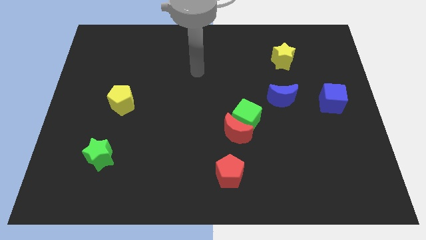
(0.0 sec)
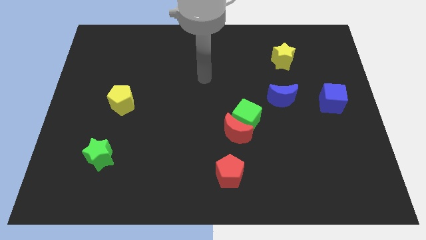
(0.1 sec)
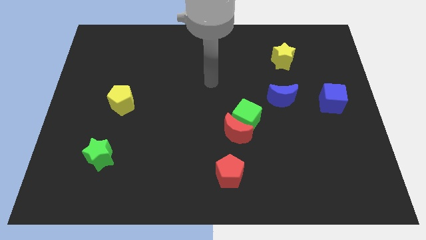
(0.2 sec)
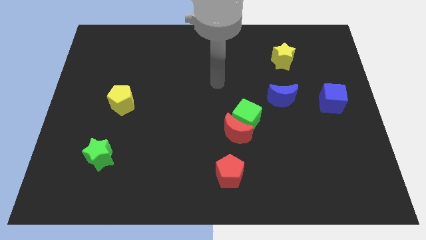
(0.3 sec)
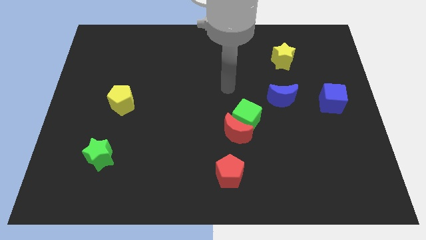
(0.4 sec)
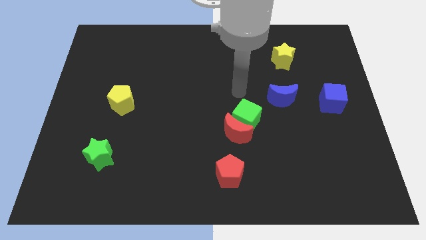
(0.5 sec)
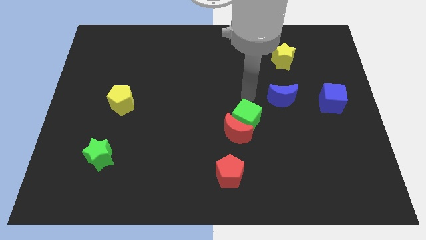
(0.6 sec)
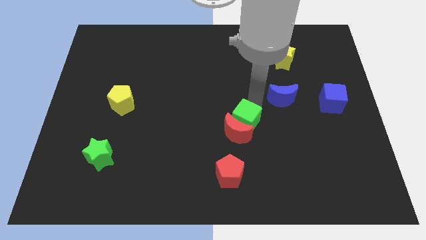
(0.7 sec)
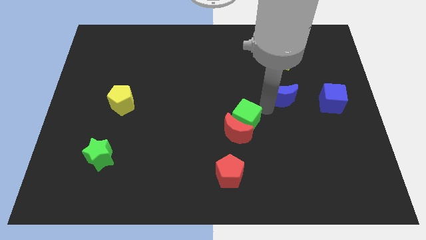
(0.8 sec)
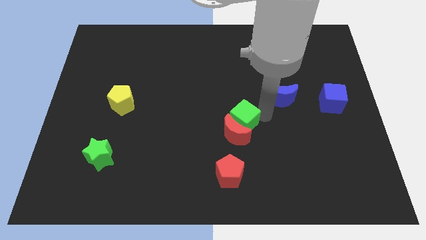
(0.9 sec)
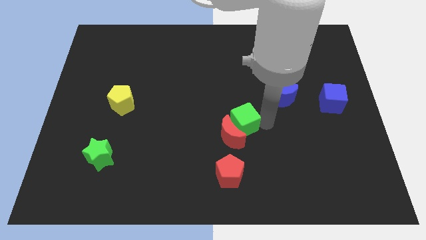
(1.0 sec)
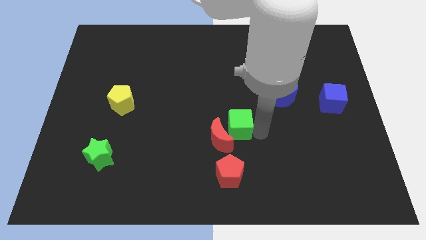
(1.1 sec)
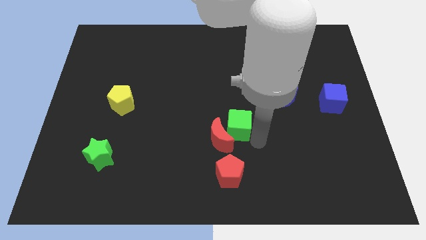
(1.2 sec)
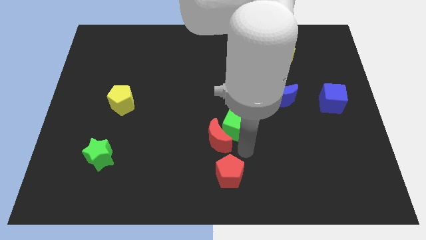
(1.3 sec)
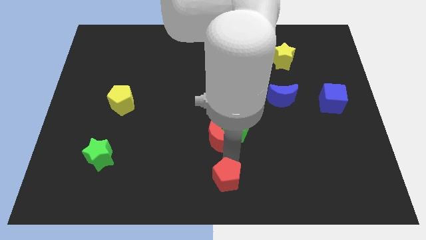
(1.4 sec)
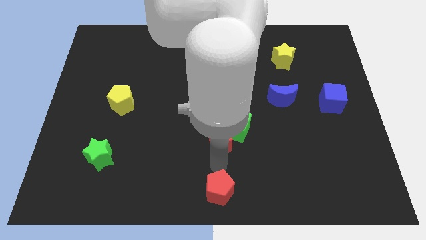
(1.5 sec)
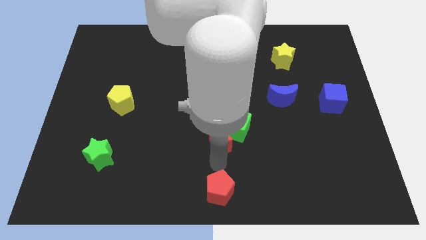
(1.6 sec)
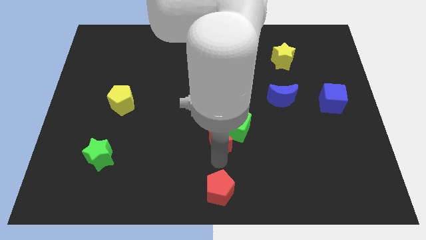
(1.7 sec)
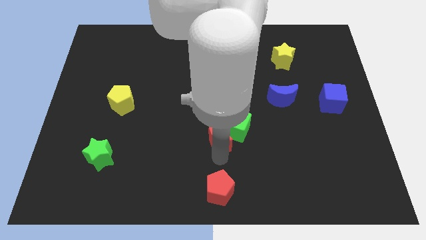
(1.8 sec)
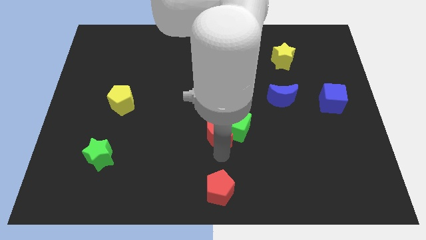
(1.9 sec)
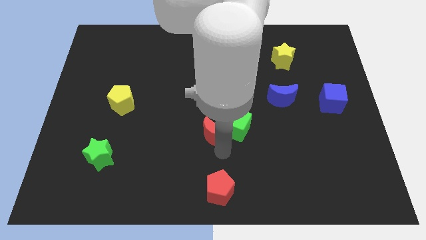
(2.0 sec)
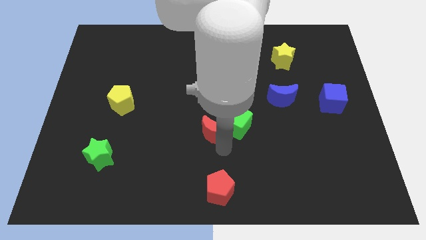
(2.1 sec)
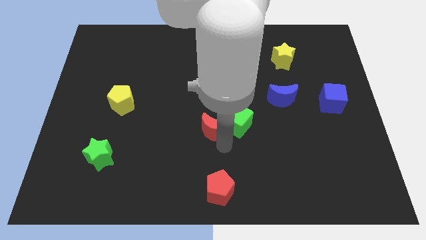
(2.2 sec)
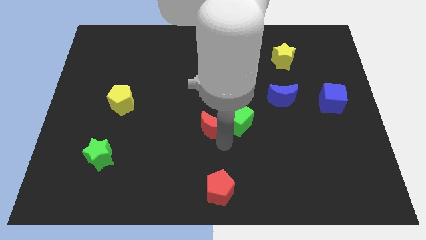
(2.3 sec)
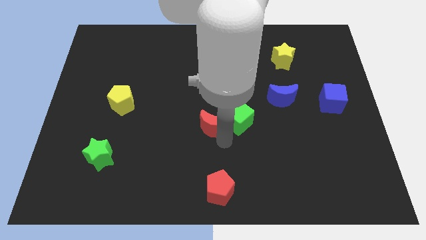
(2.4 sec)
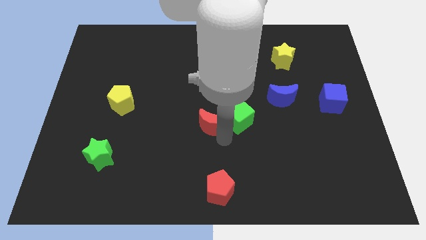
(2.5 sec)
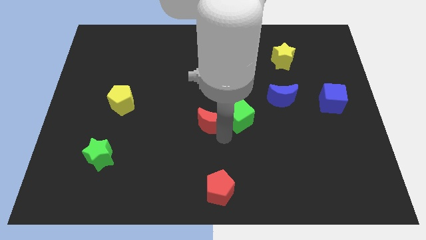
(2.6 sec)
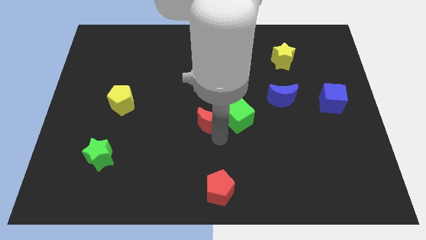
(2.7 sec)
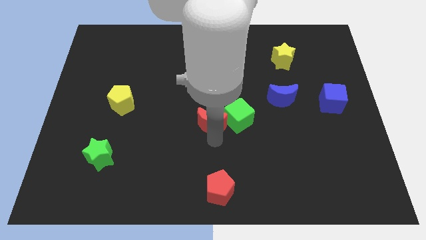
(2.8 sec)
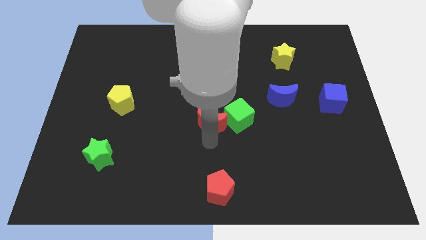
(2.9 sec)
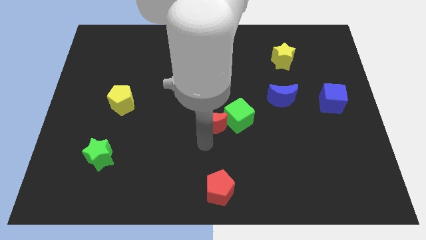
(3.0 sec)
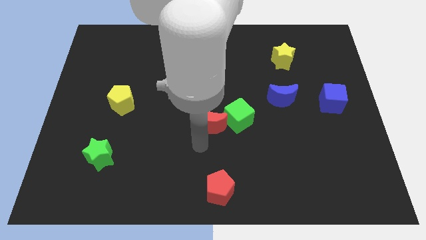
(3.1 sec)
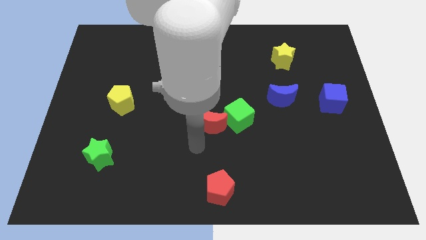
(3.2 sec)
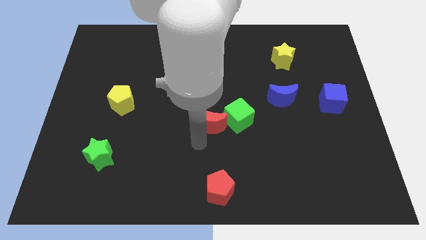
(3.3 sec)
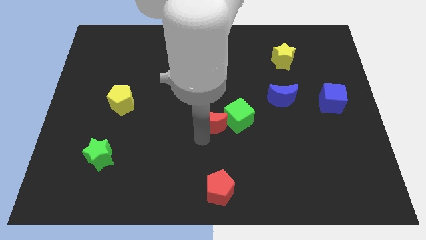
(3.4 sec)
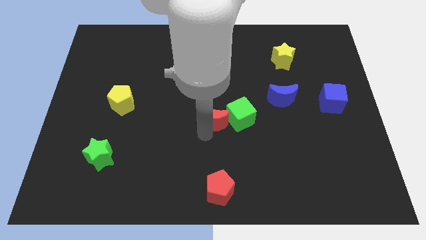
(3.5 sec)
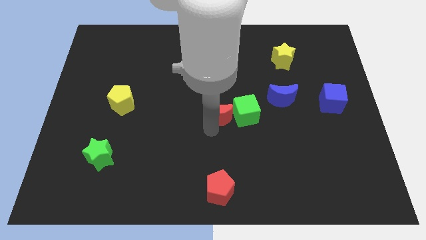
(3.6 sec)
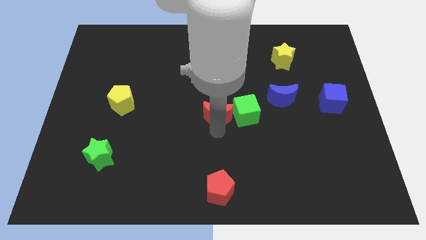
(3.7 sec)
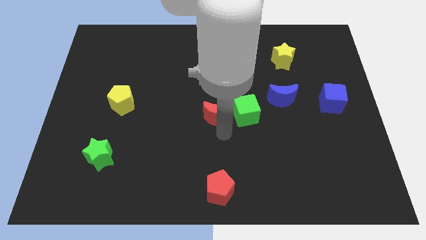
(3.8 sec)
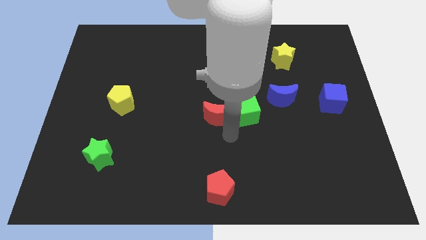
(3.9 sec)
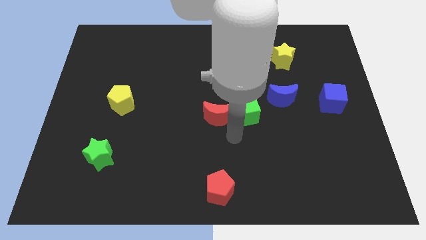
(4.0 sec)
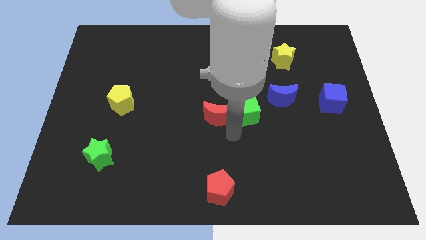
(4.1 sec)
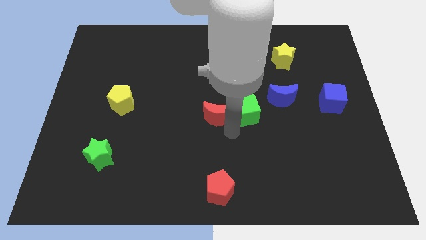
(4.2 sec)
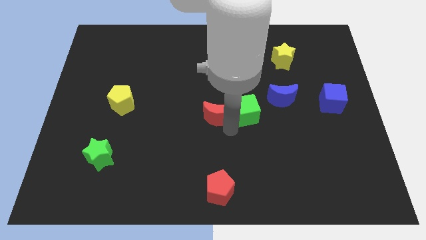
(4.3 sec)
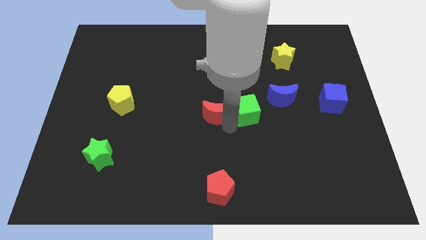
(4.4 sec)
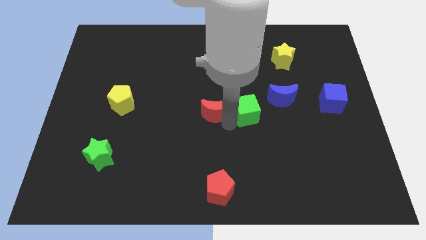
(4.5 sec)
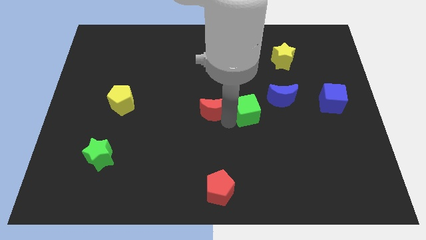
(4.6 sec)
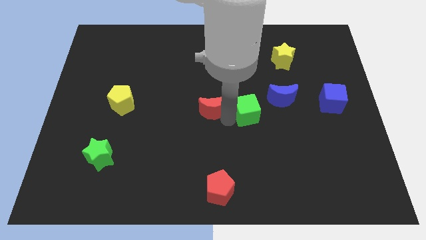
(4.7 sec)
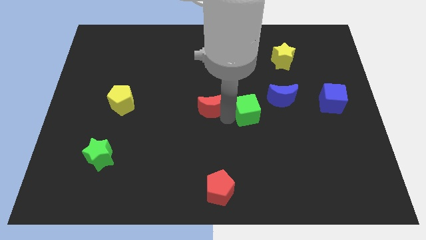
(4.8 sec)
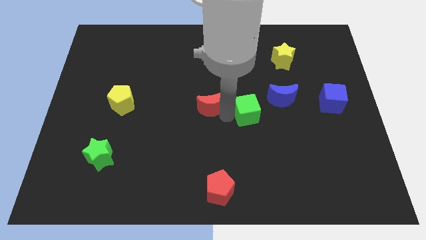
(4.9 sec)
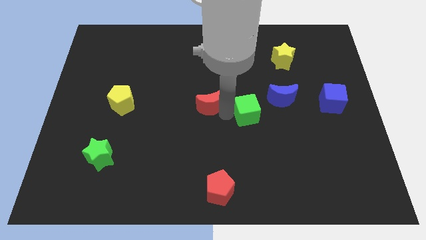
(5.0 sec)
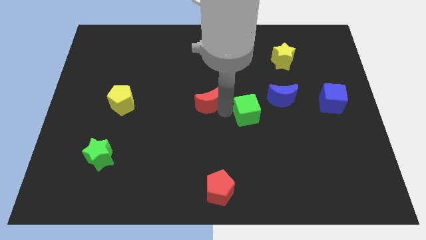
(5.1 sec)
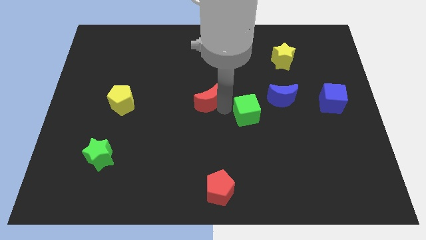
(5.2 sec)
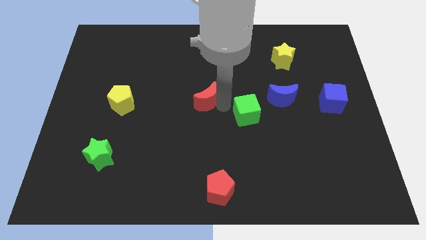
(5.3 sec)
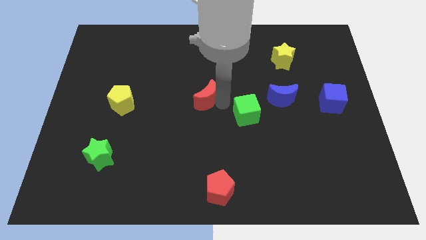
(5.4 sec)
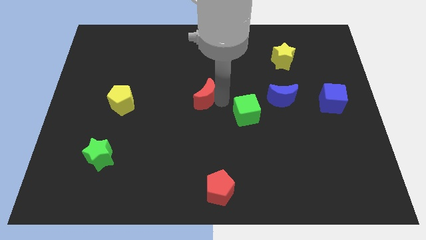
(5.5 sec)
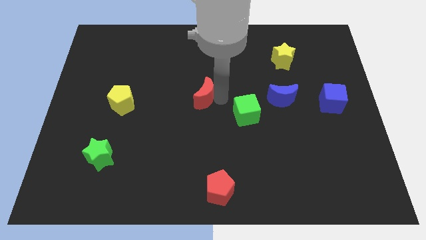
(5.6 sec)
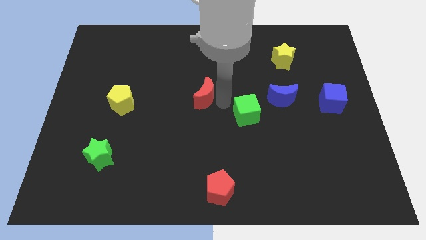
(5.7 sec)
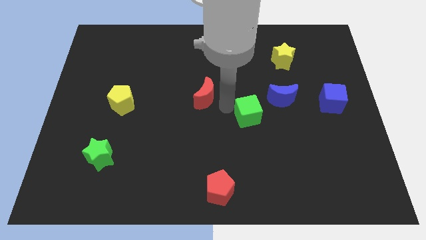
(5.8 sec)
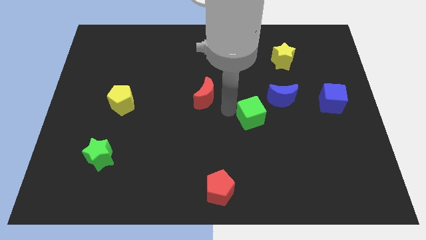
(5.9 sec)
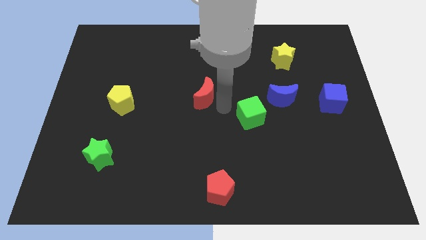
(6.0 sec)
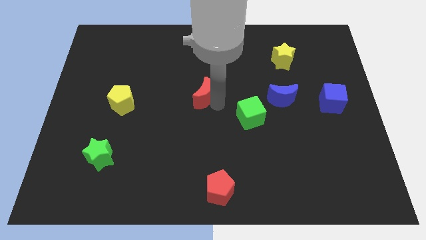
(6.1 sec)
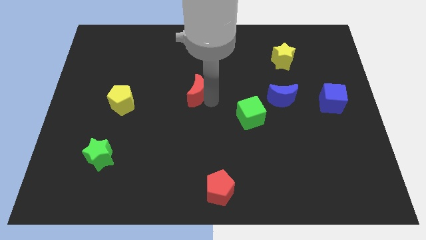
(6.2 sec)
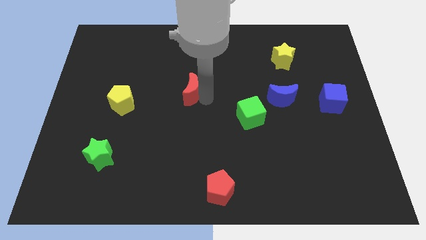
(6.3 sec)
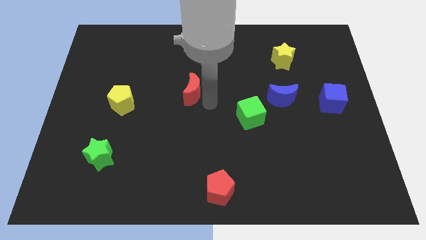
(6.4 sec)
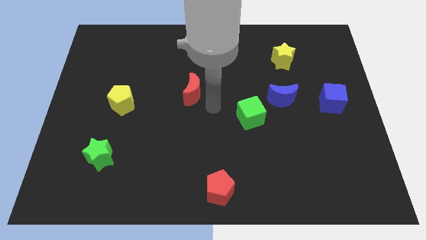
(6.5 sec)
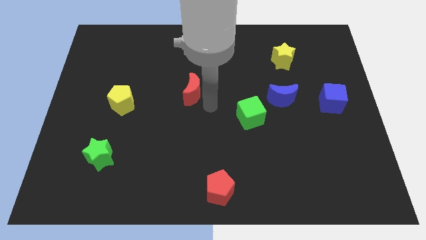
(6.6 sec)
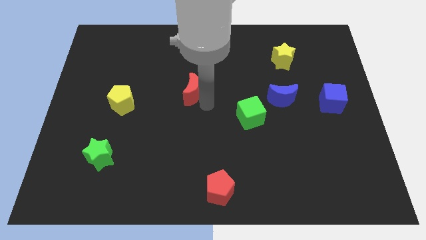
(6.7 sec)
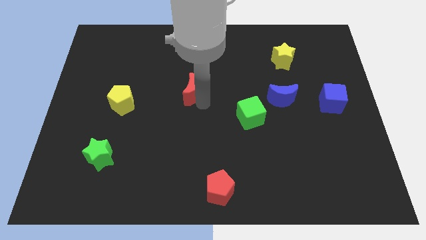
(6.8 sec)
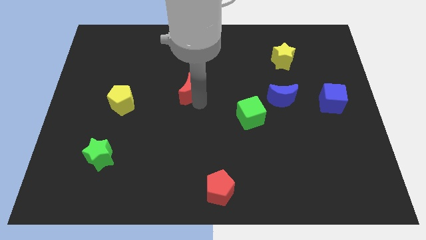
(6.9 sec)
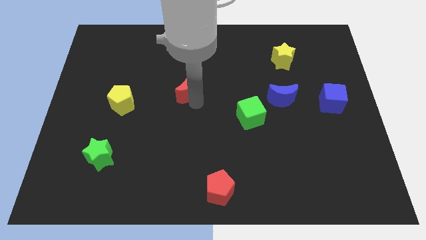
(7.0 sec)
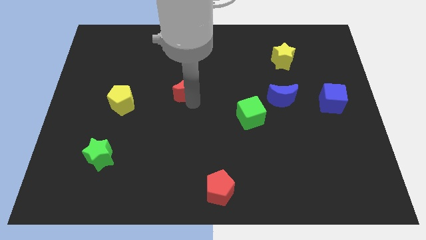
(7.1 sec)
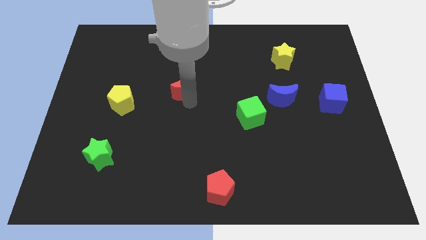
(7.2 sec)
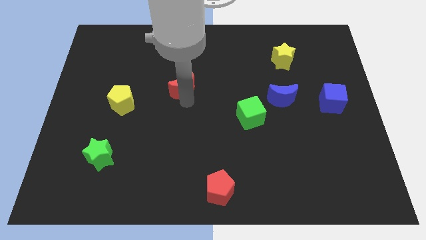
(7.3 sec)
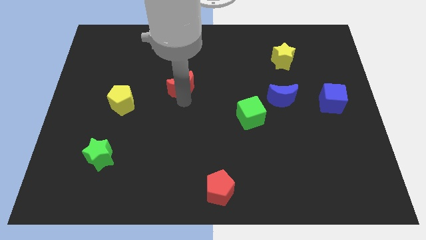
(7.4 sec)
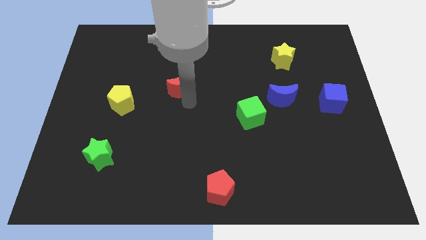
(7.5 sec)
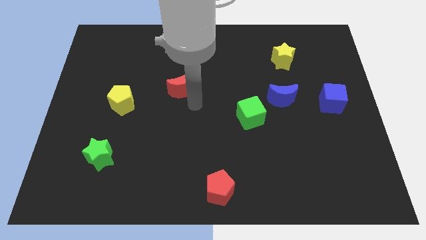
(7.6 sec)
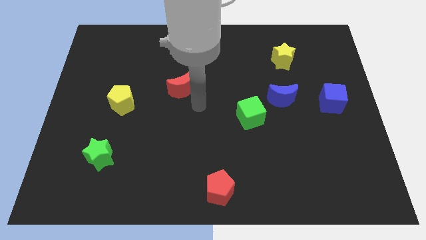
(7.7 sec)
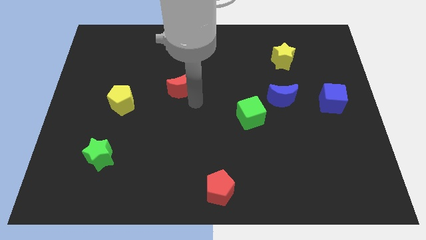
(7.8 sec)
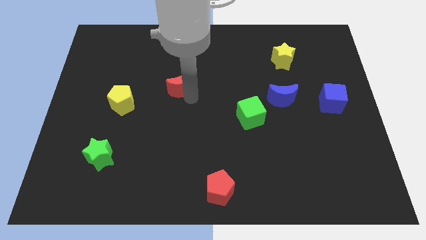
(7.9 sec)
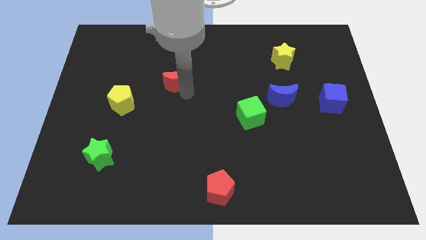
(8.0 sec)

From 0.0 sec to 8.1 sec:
push the red moon upwards and to the left

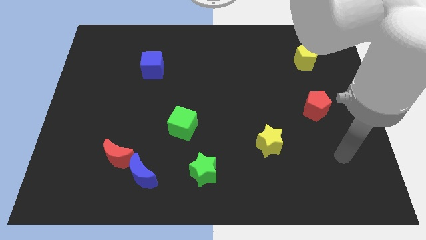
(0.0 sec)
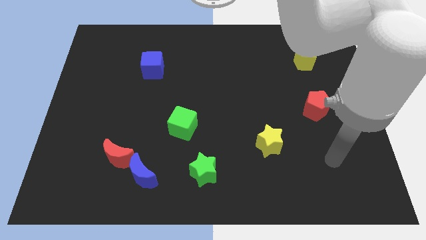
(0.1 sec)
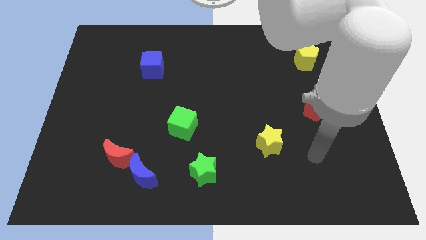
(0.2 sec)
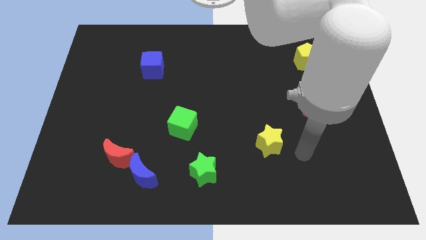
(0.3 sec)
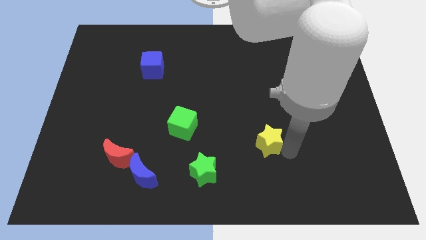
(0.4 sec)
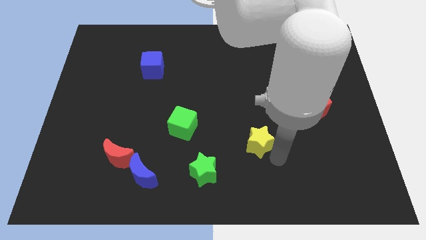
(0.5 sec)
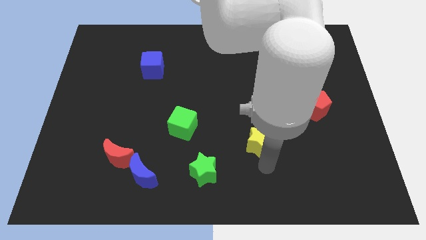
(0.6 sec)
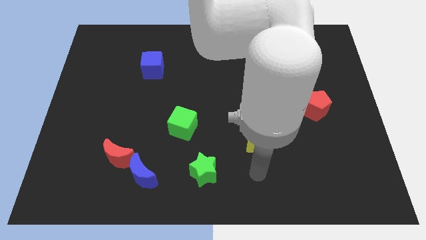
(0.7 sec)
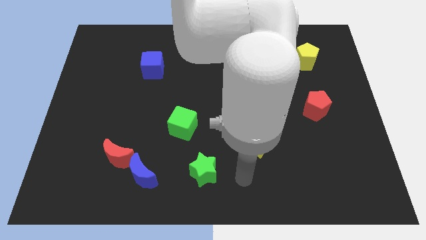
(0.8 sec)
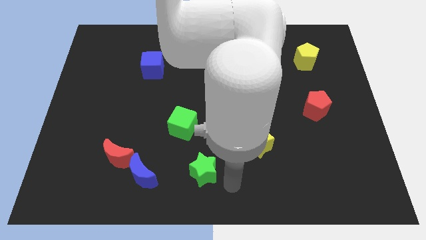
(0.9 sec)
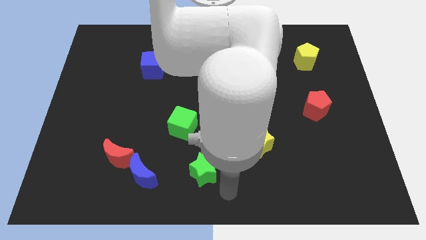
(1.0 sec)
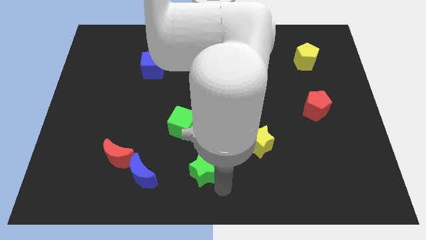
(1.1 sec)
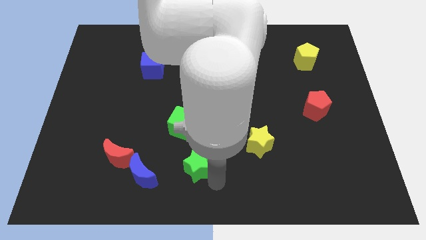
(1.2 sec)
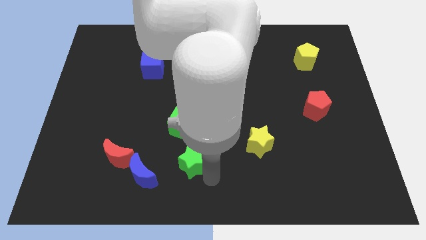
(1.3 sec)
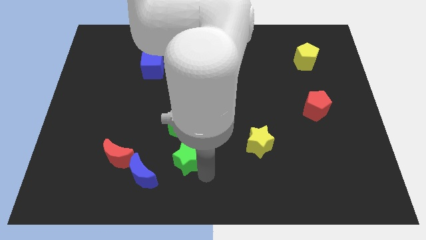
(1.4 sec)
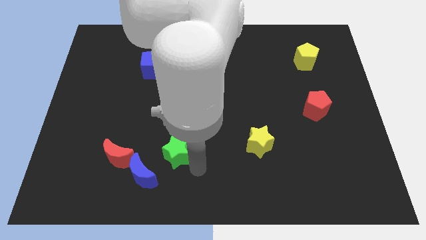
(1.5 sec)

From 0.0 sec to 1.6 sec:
slightly push the green star up and then left
